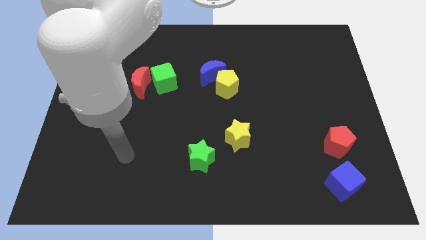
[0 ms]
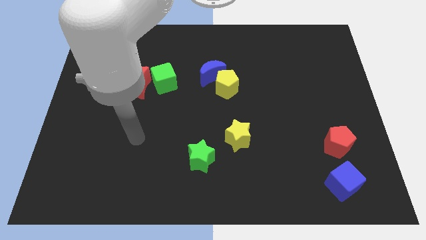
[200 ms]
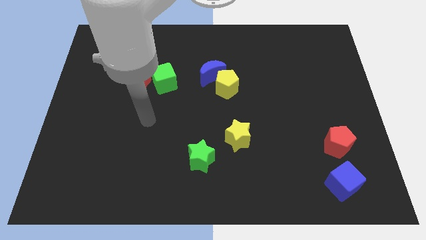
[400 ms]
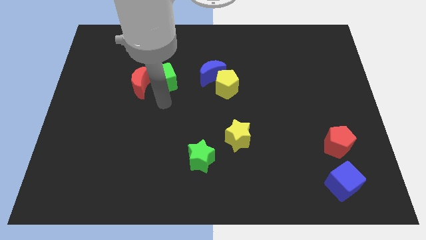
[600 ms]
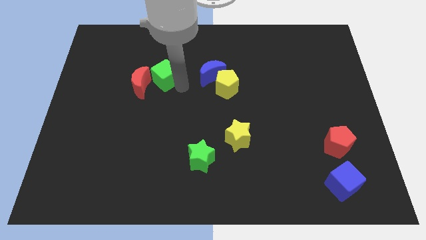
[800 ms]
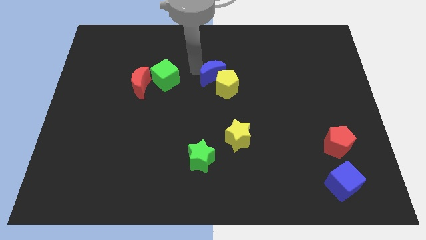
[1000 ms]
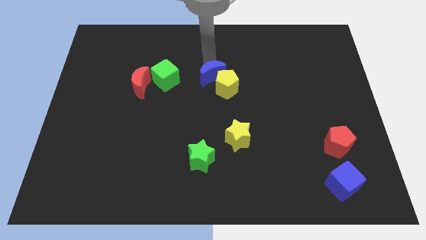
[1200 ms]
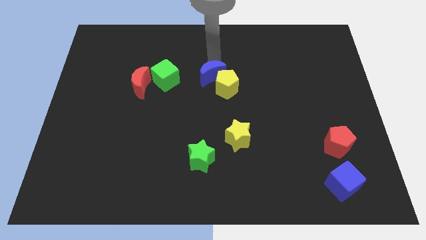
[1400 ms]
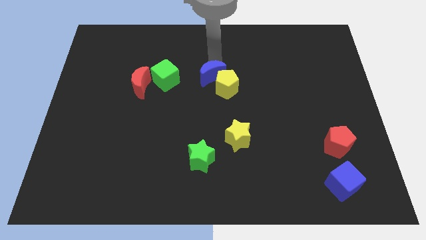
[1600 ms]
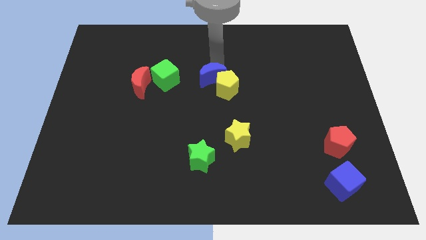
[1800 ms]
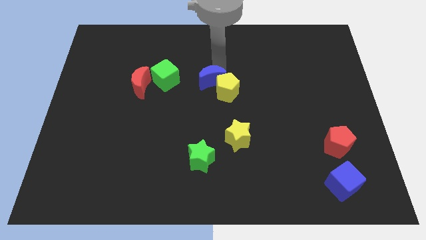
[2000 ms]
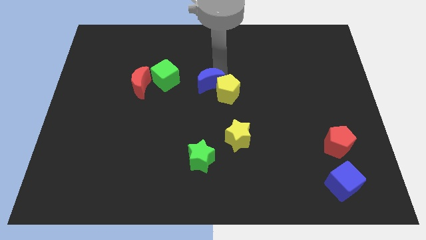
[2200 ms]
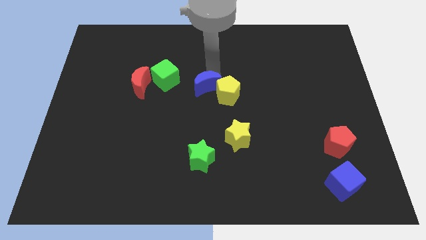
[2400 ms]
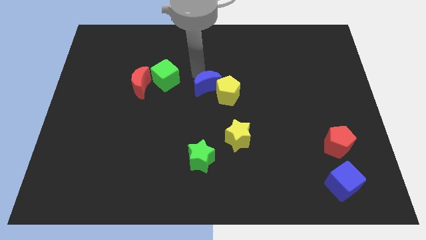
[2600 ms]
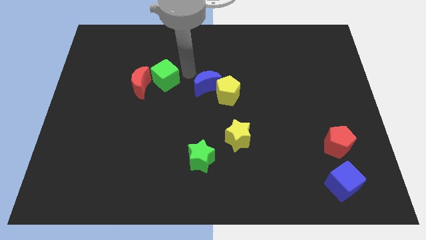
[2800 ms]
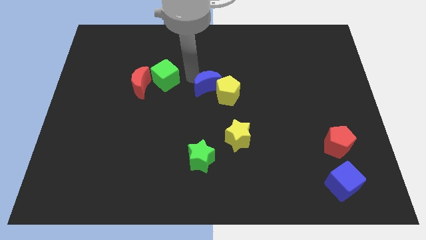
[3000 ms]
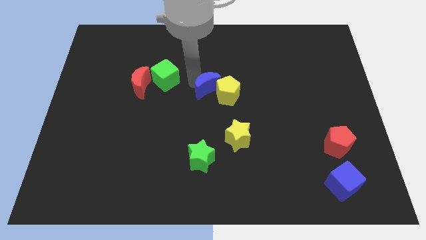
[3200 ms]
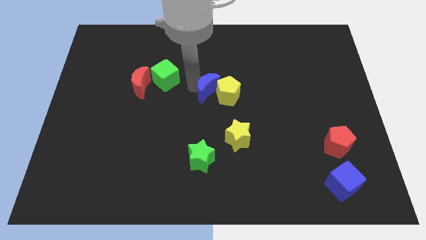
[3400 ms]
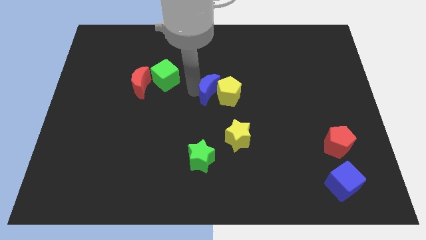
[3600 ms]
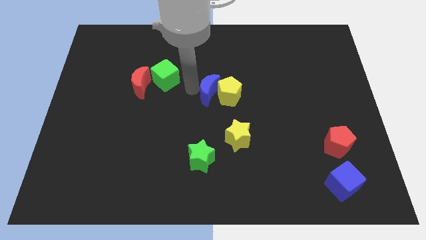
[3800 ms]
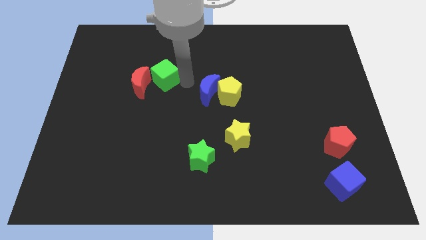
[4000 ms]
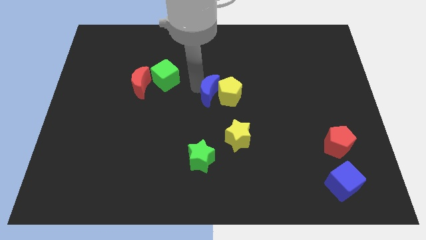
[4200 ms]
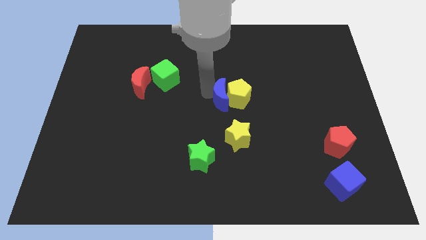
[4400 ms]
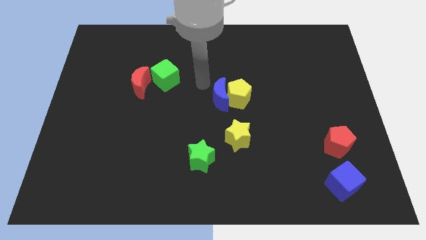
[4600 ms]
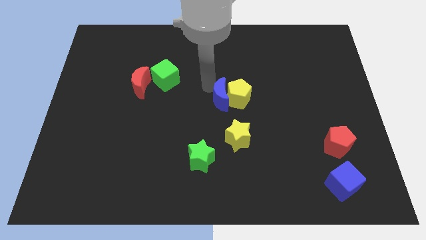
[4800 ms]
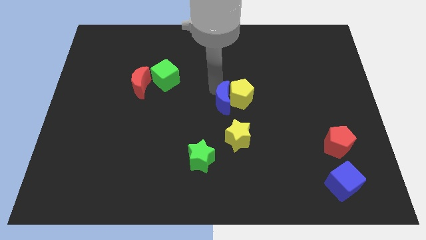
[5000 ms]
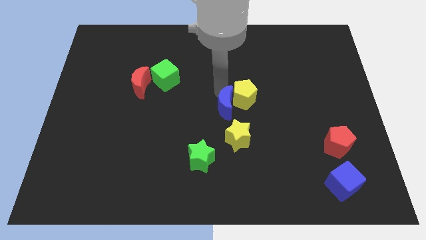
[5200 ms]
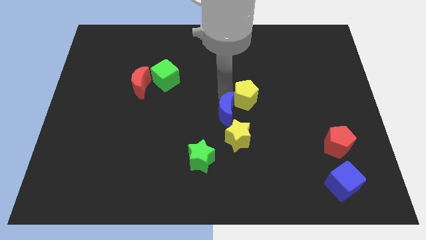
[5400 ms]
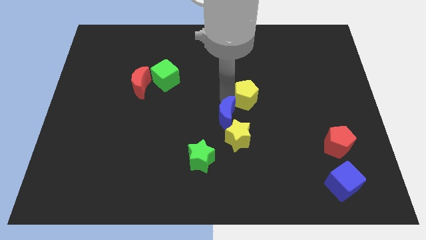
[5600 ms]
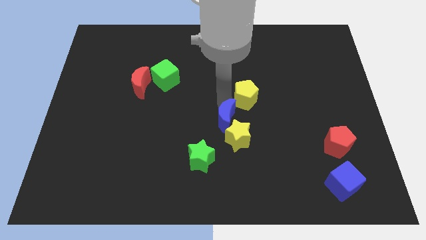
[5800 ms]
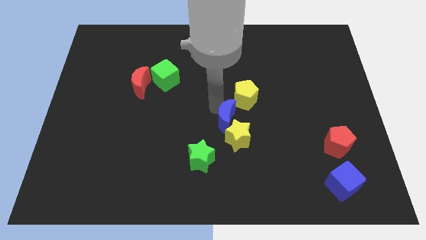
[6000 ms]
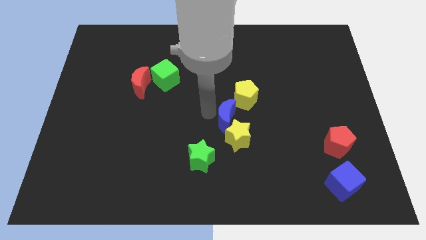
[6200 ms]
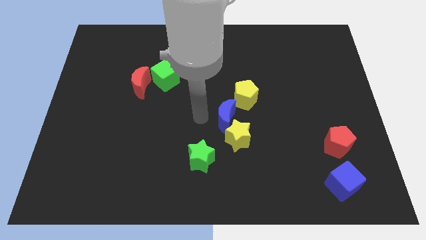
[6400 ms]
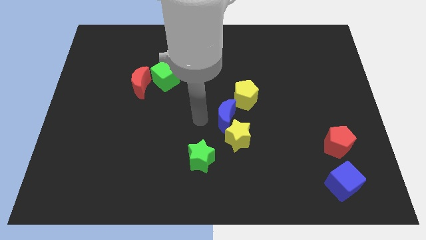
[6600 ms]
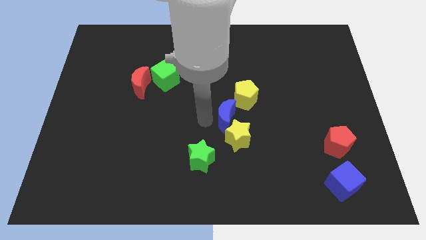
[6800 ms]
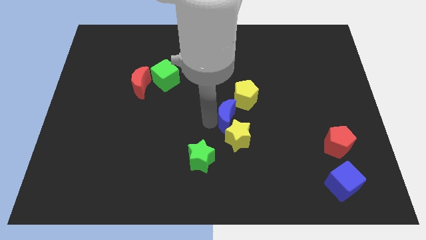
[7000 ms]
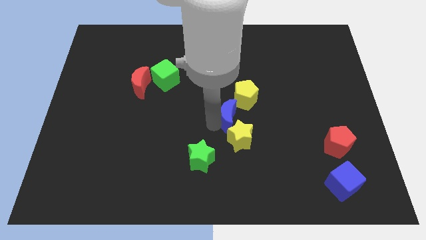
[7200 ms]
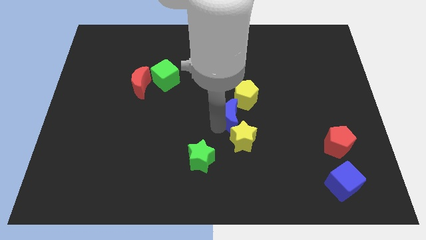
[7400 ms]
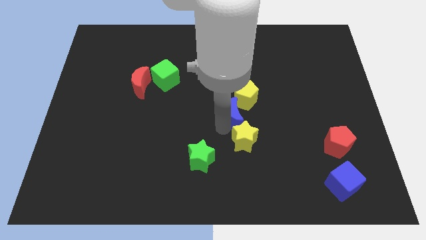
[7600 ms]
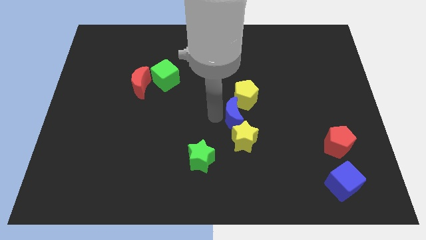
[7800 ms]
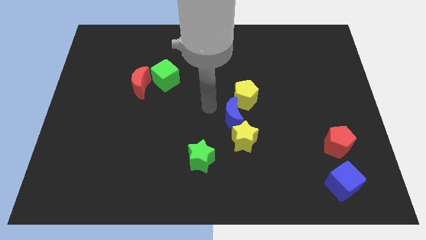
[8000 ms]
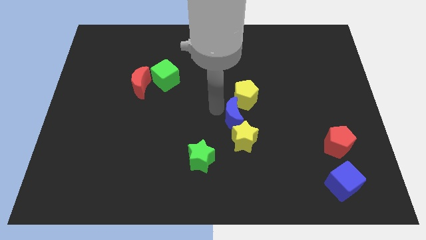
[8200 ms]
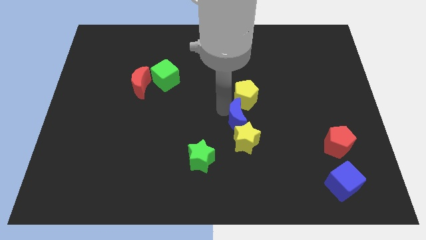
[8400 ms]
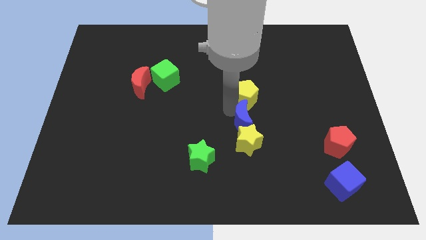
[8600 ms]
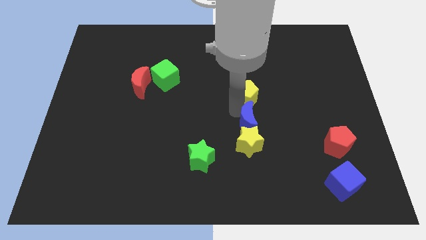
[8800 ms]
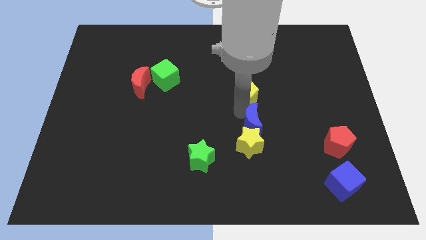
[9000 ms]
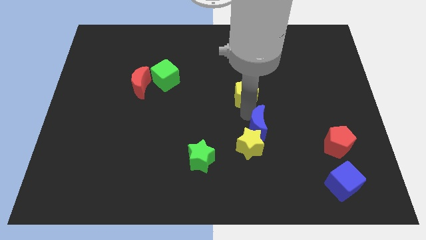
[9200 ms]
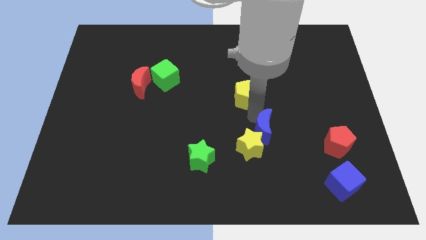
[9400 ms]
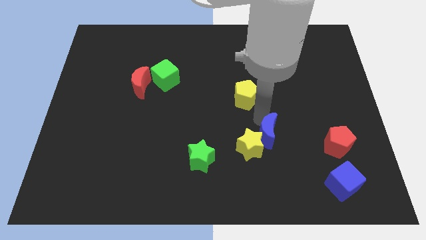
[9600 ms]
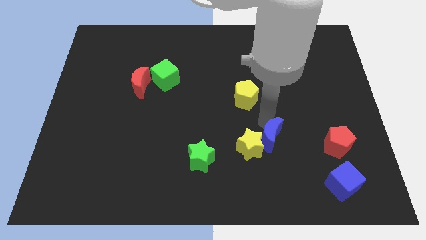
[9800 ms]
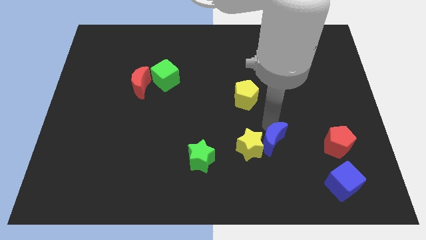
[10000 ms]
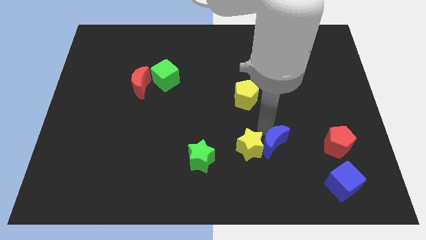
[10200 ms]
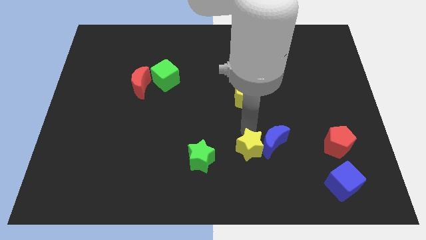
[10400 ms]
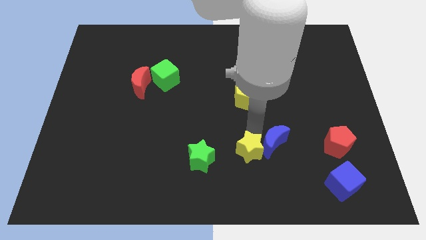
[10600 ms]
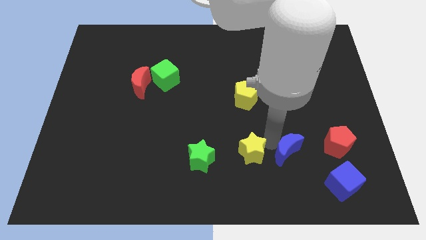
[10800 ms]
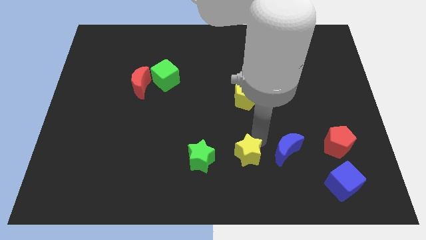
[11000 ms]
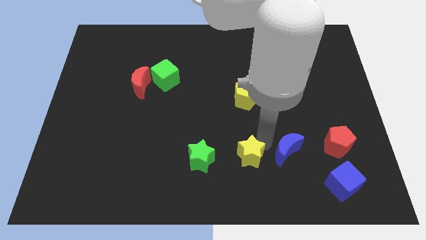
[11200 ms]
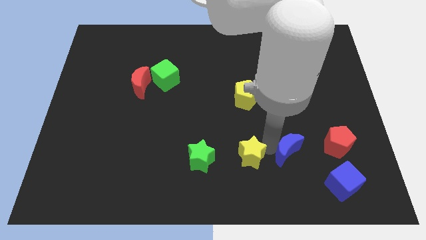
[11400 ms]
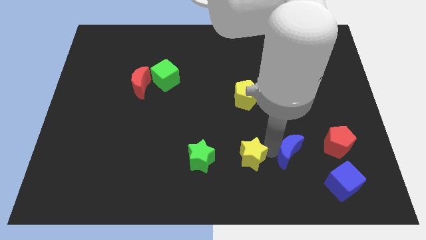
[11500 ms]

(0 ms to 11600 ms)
move the blue moon to the top left side of the blue cube
